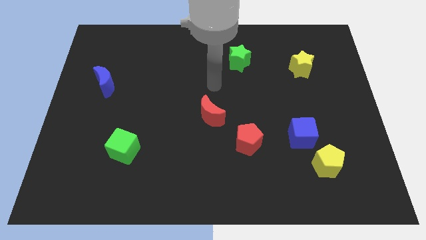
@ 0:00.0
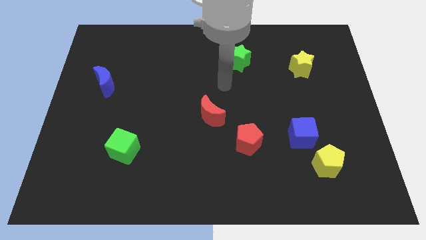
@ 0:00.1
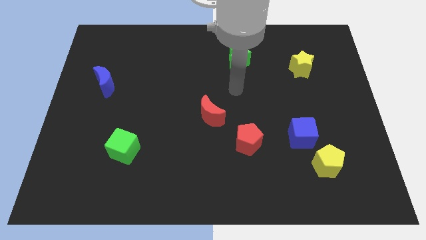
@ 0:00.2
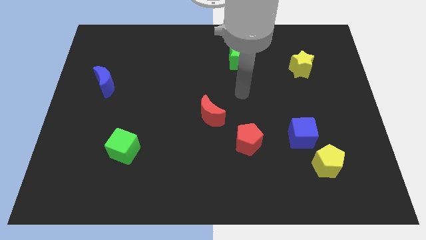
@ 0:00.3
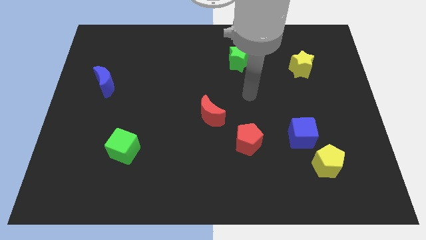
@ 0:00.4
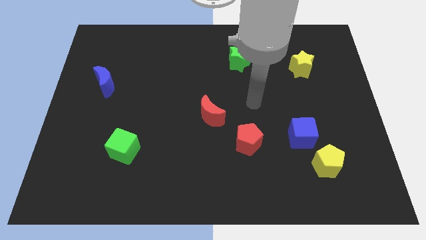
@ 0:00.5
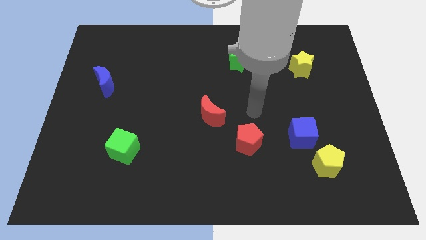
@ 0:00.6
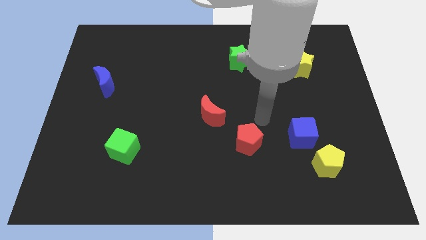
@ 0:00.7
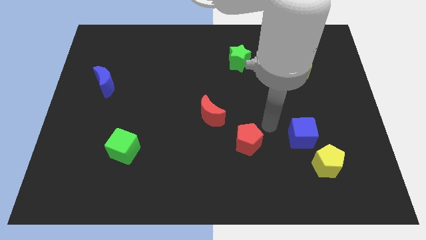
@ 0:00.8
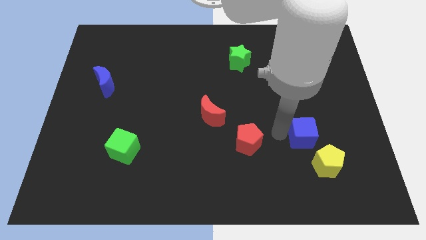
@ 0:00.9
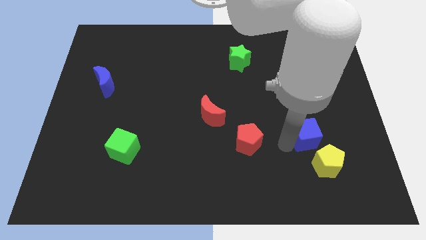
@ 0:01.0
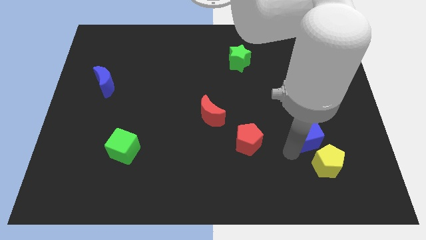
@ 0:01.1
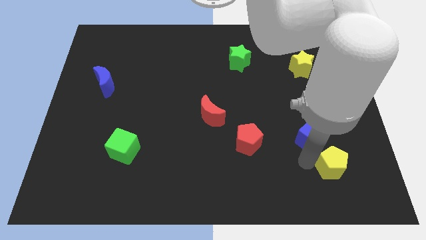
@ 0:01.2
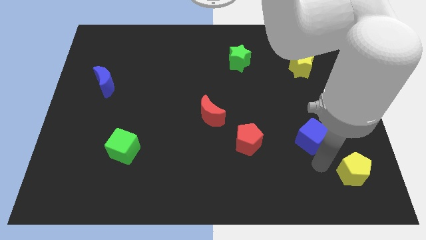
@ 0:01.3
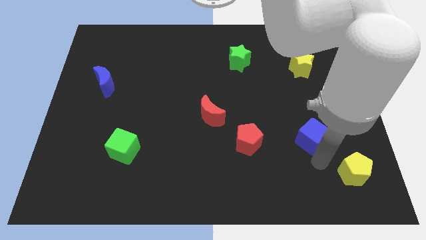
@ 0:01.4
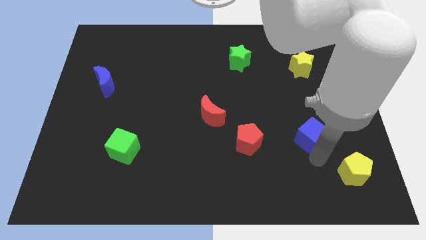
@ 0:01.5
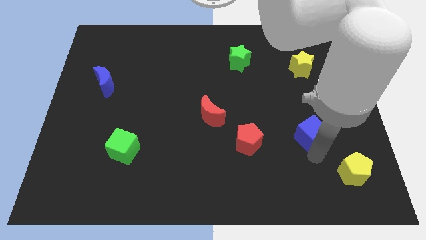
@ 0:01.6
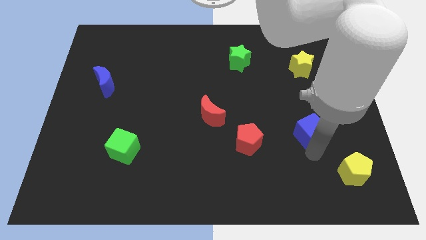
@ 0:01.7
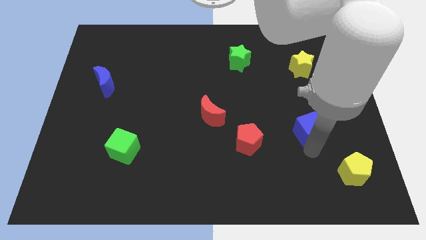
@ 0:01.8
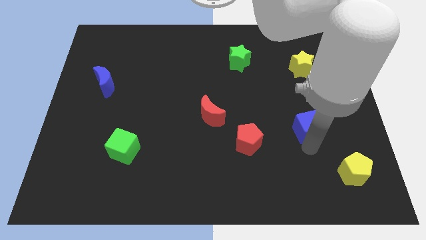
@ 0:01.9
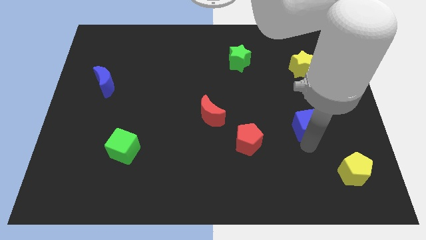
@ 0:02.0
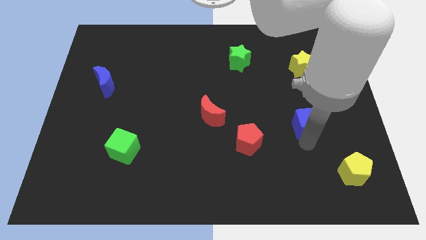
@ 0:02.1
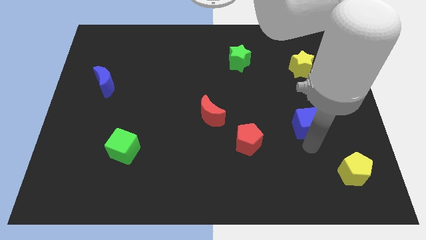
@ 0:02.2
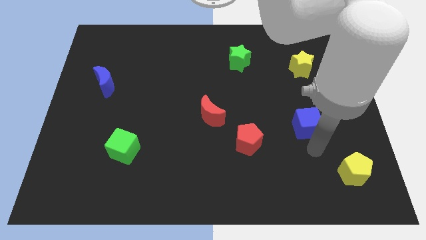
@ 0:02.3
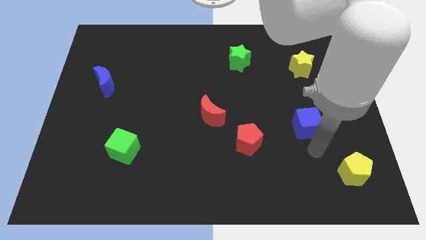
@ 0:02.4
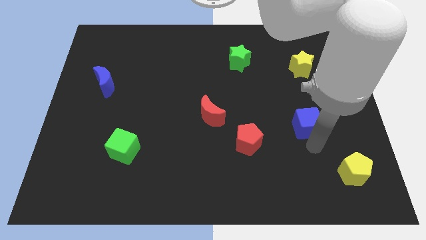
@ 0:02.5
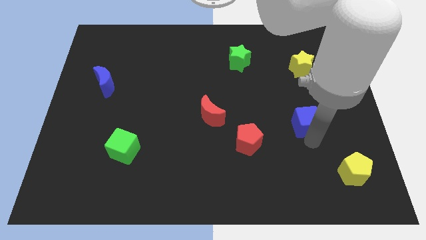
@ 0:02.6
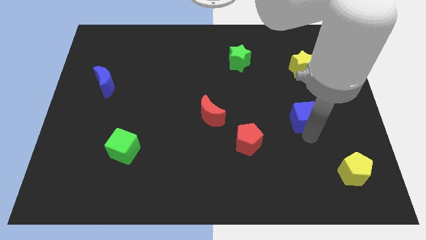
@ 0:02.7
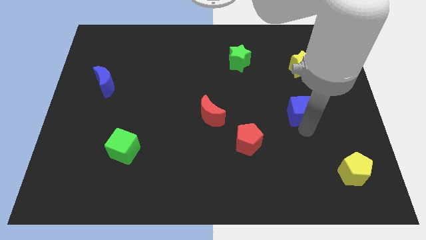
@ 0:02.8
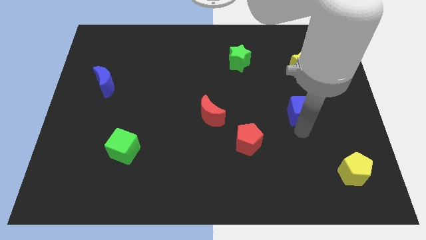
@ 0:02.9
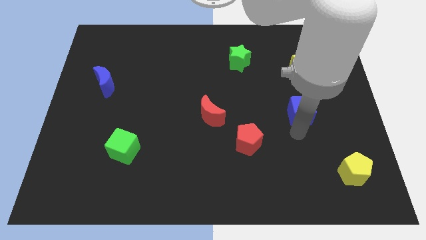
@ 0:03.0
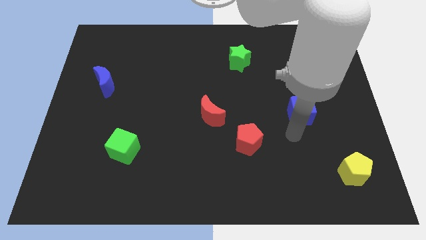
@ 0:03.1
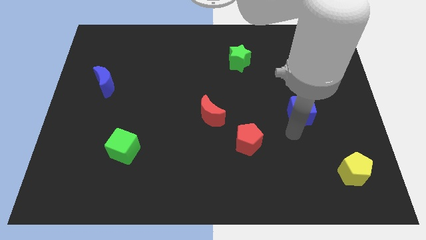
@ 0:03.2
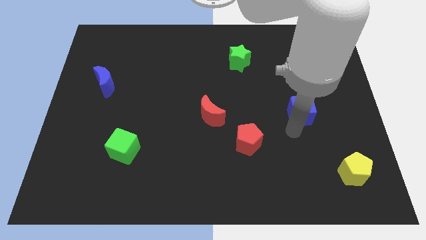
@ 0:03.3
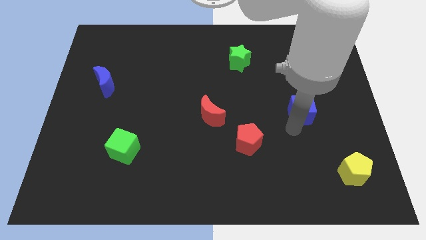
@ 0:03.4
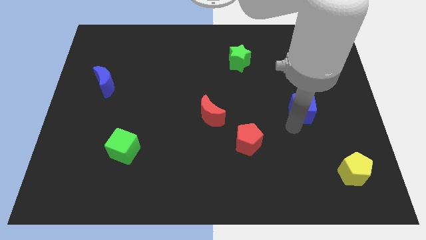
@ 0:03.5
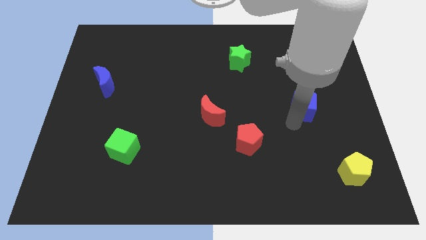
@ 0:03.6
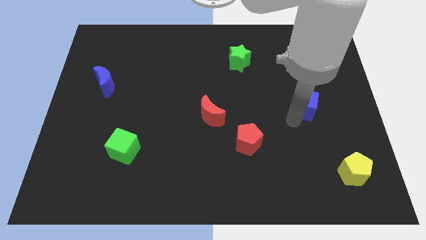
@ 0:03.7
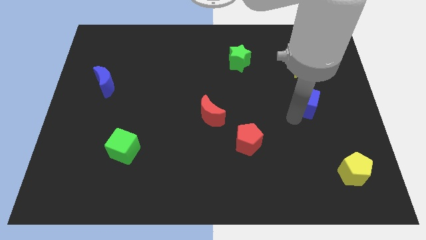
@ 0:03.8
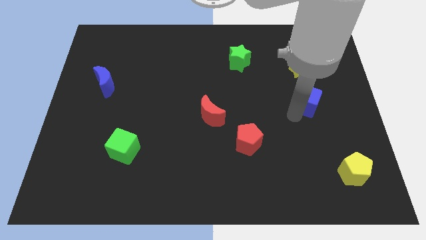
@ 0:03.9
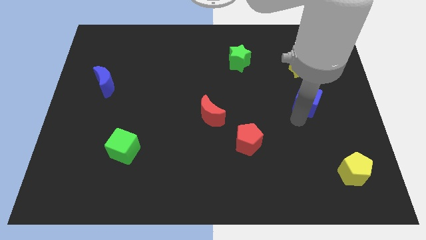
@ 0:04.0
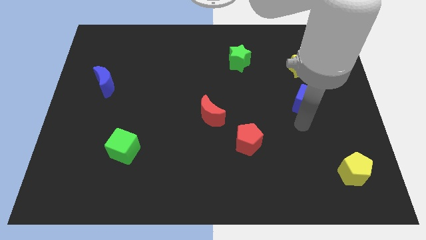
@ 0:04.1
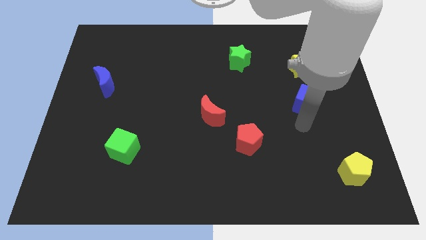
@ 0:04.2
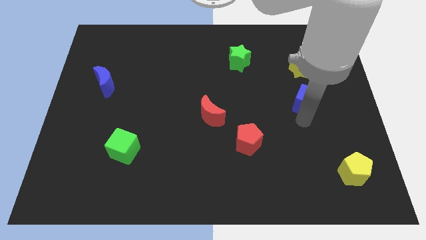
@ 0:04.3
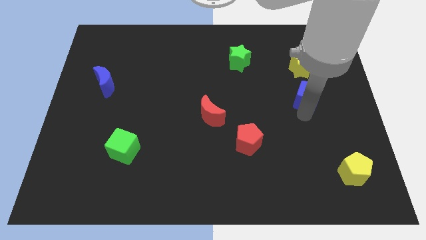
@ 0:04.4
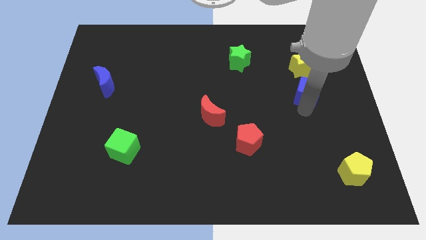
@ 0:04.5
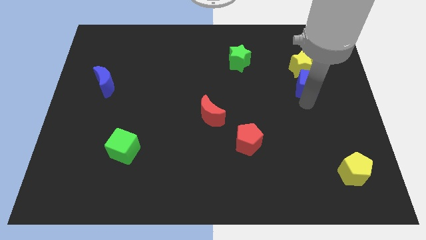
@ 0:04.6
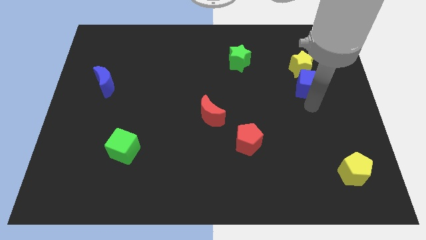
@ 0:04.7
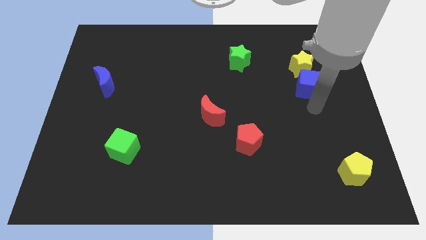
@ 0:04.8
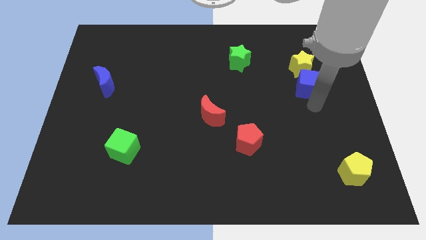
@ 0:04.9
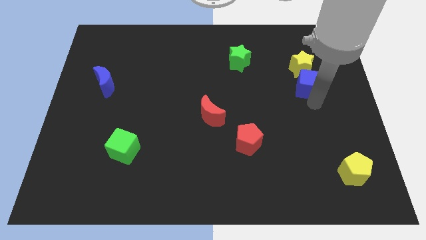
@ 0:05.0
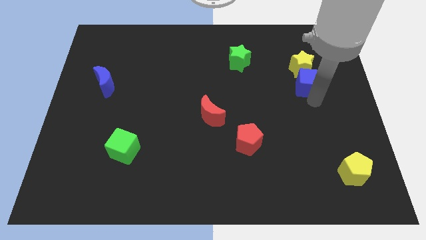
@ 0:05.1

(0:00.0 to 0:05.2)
push the blue cube to the yellow star

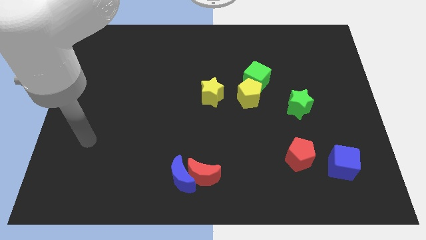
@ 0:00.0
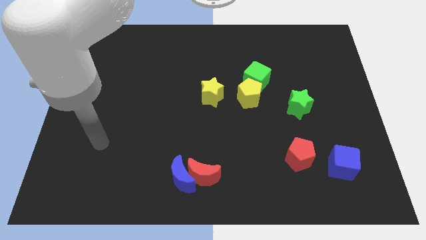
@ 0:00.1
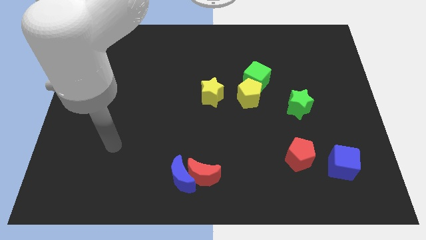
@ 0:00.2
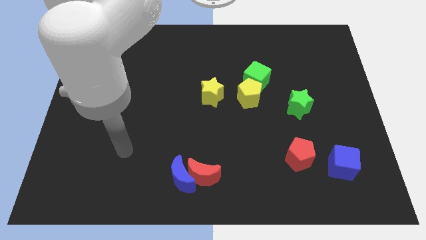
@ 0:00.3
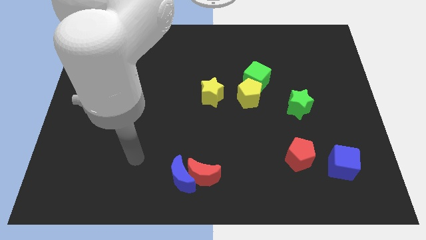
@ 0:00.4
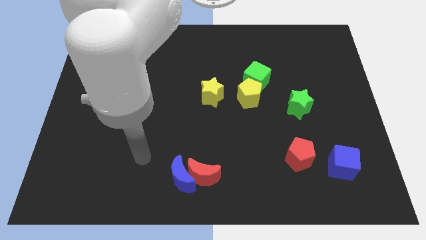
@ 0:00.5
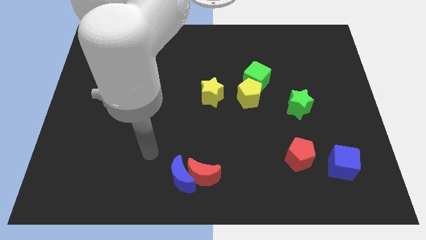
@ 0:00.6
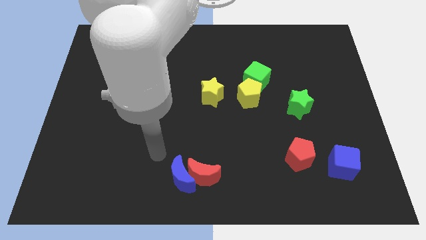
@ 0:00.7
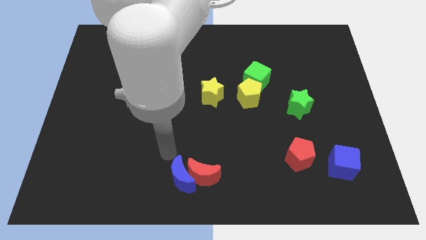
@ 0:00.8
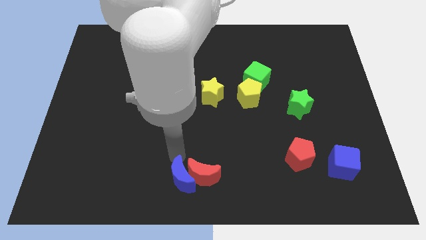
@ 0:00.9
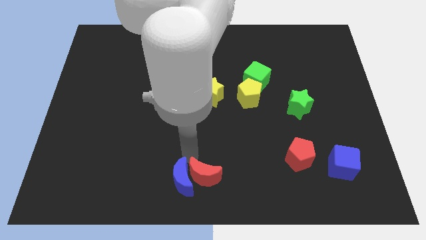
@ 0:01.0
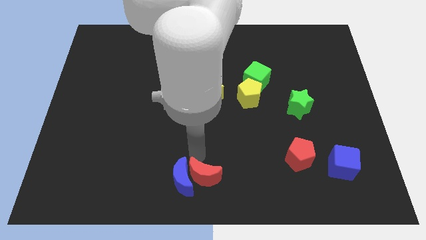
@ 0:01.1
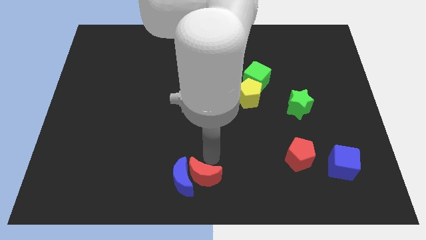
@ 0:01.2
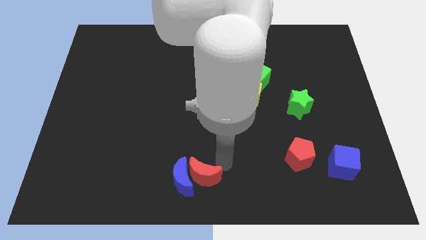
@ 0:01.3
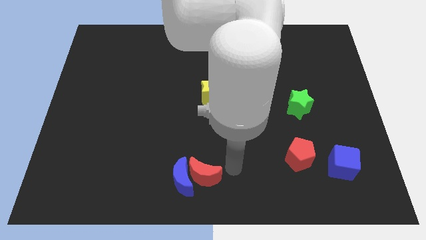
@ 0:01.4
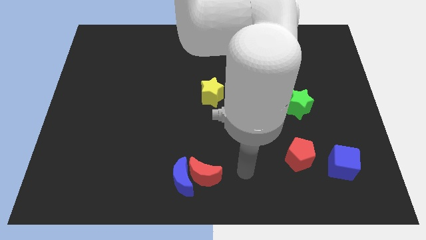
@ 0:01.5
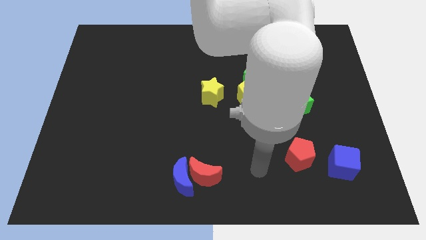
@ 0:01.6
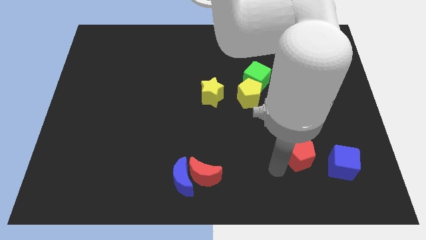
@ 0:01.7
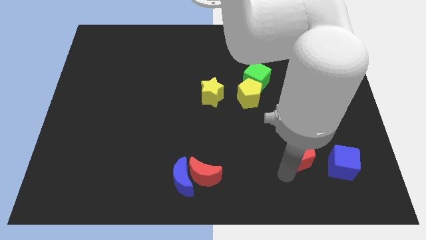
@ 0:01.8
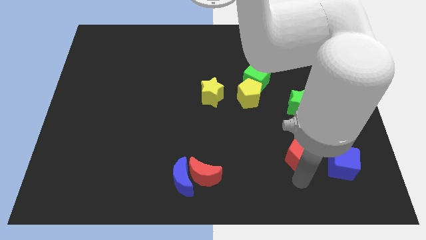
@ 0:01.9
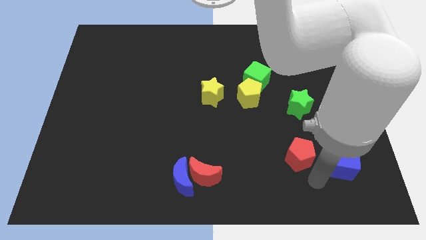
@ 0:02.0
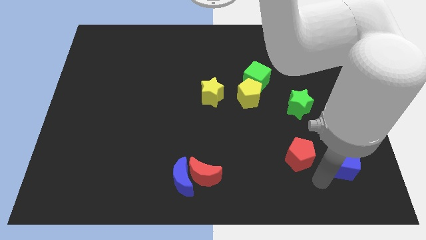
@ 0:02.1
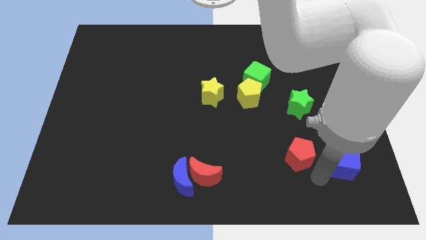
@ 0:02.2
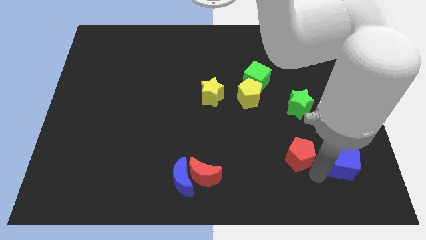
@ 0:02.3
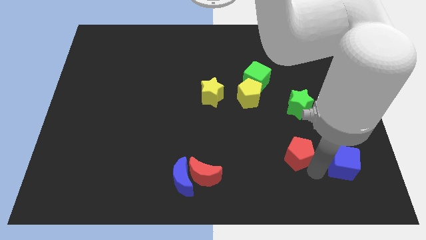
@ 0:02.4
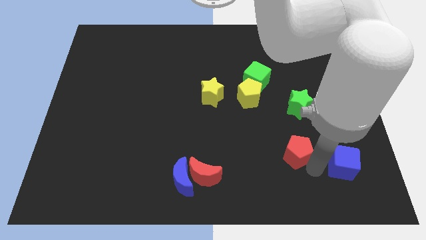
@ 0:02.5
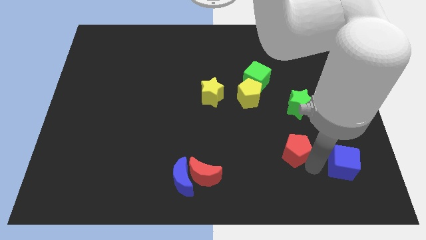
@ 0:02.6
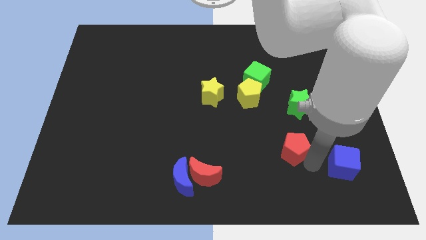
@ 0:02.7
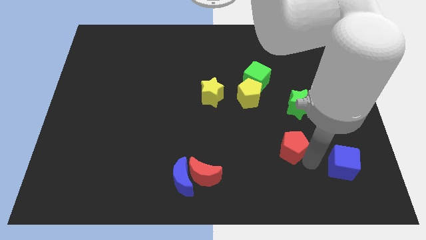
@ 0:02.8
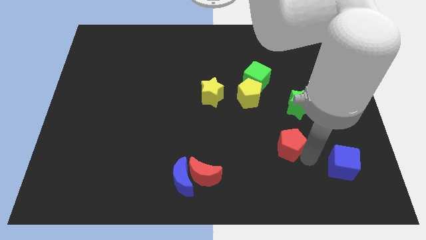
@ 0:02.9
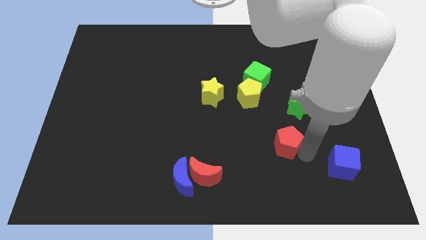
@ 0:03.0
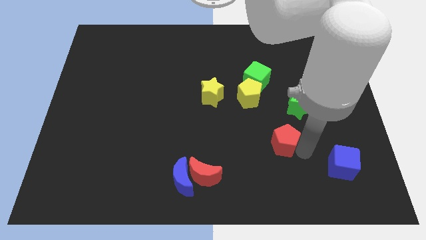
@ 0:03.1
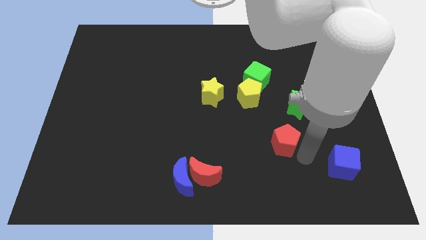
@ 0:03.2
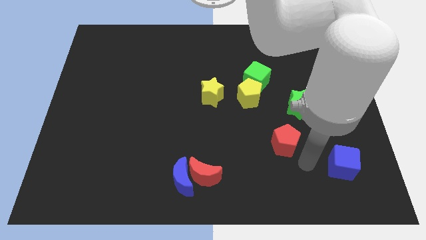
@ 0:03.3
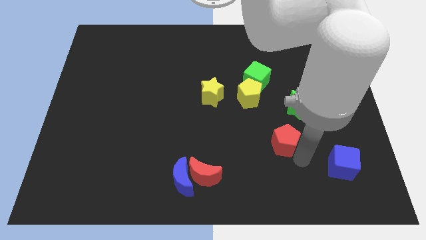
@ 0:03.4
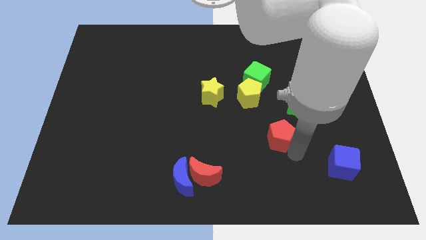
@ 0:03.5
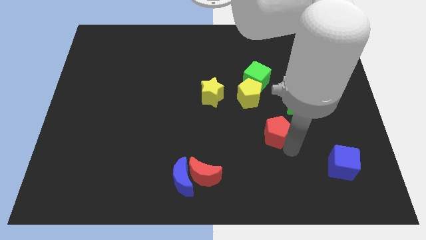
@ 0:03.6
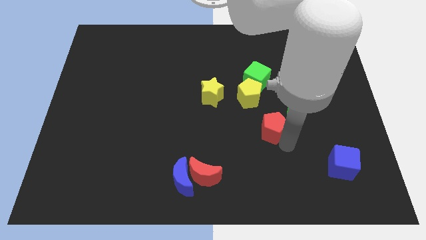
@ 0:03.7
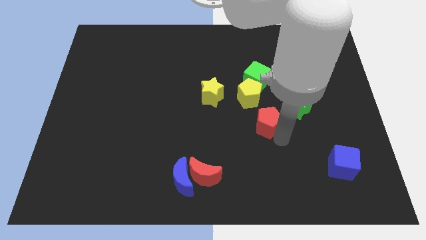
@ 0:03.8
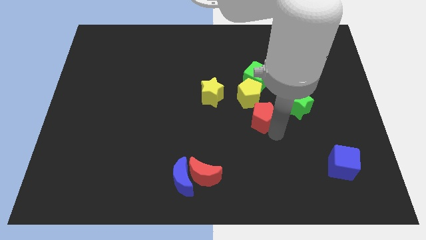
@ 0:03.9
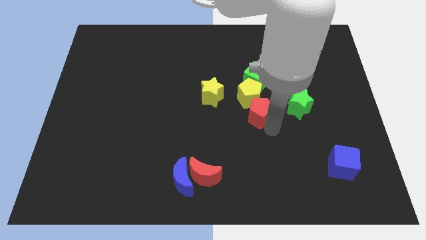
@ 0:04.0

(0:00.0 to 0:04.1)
put the red pentagon to the yellow pentagon
